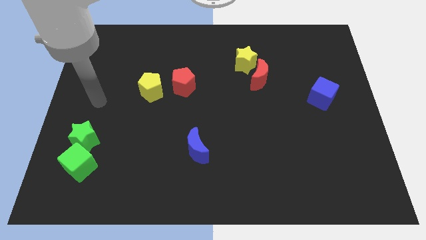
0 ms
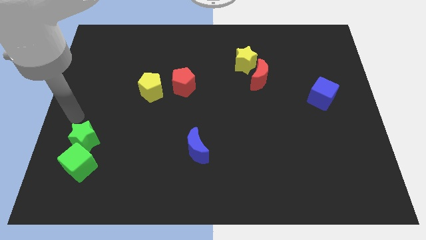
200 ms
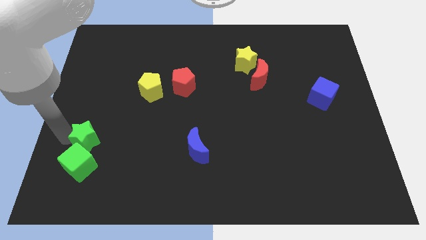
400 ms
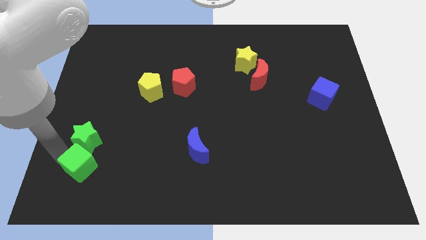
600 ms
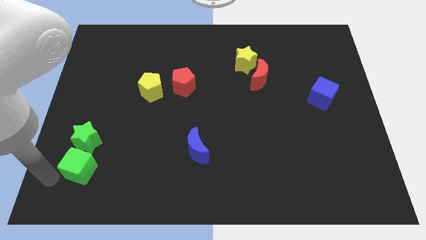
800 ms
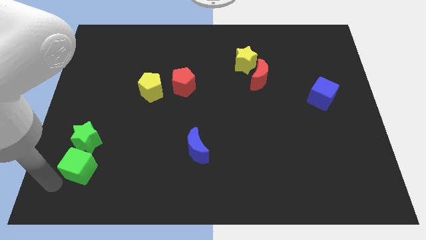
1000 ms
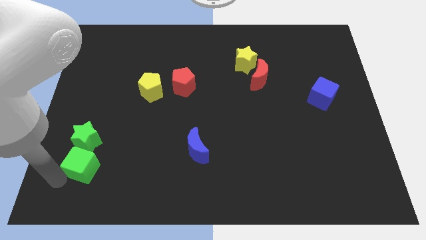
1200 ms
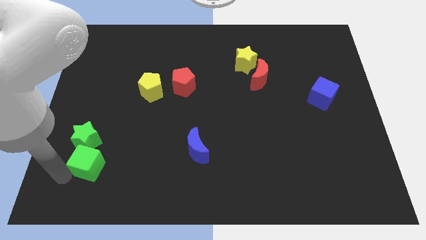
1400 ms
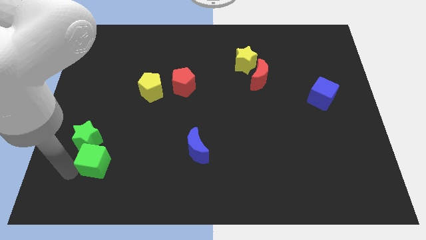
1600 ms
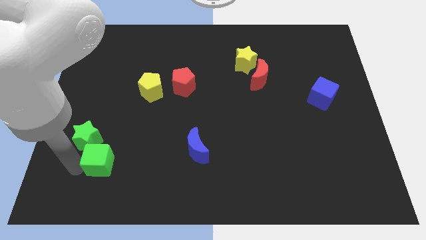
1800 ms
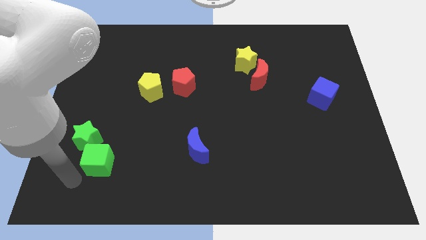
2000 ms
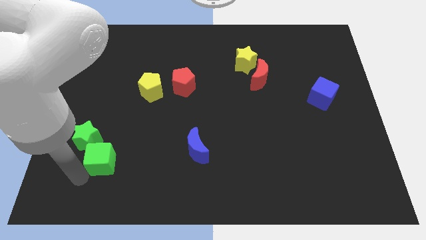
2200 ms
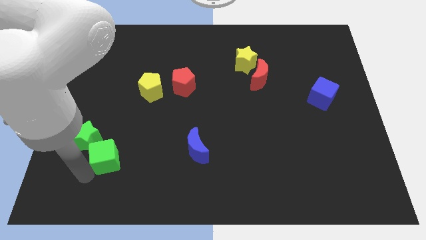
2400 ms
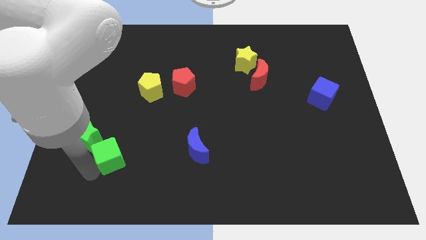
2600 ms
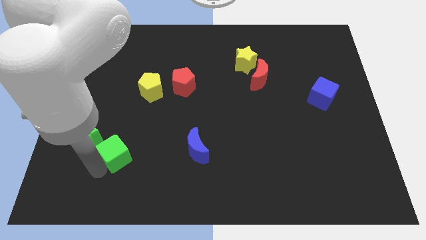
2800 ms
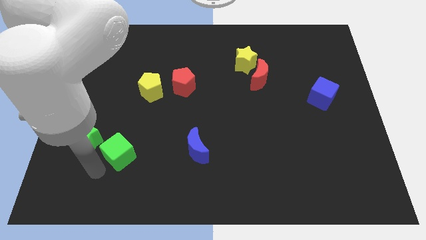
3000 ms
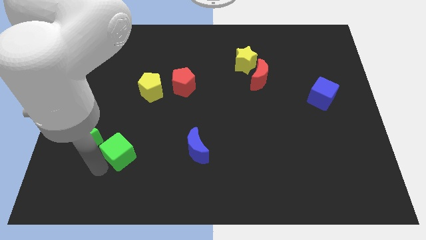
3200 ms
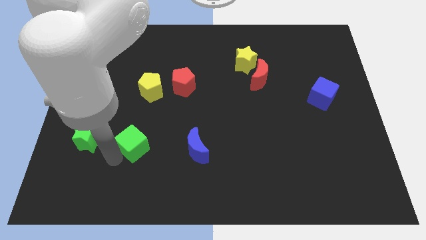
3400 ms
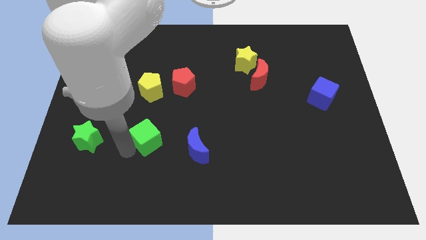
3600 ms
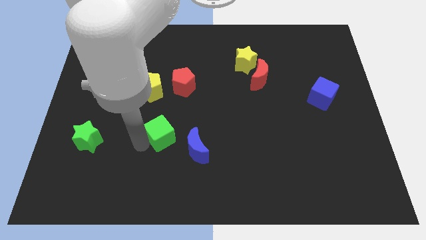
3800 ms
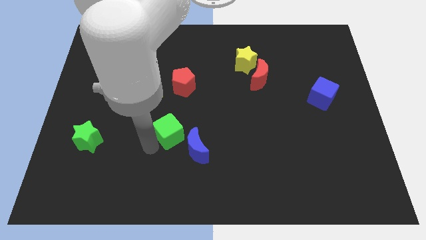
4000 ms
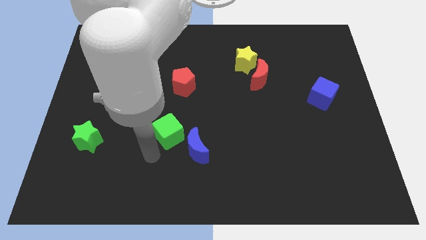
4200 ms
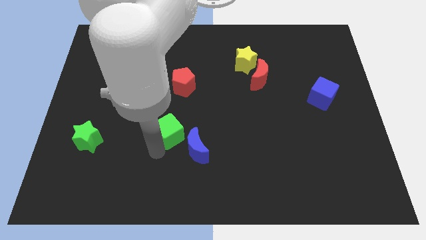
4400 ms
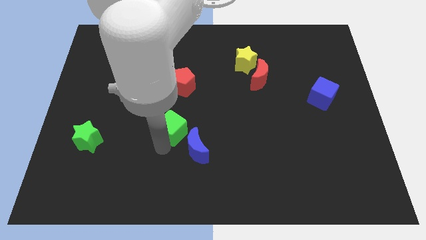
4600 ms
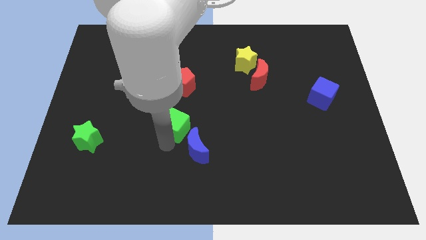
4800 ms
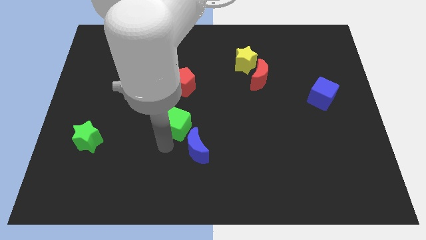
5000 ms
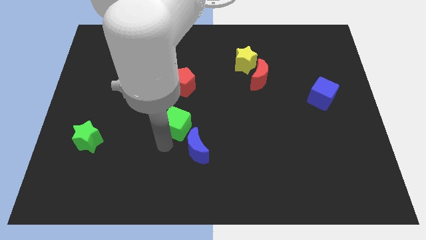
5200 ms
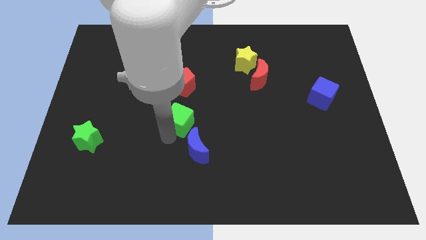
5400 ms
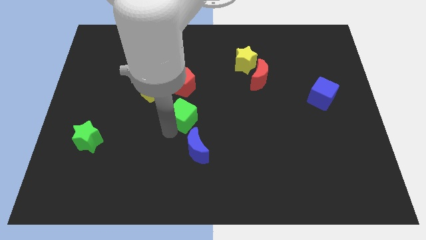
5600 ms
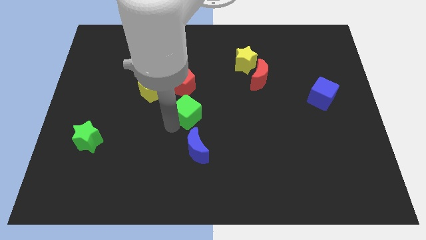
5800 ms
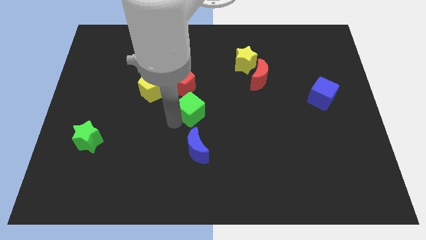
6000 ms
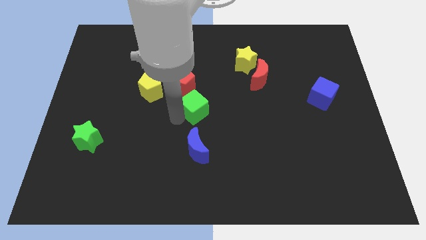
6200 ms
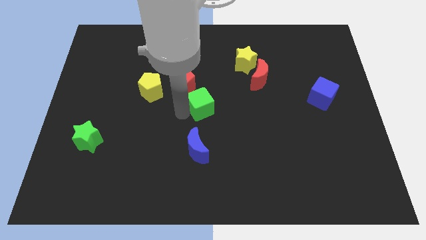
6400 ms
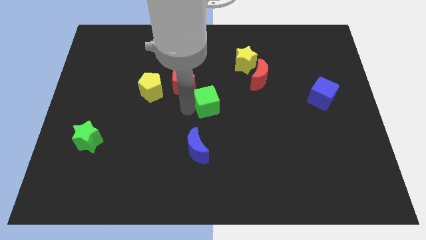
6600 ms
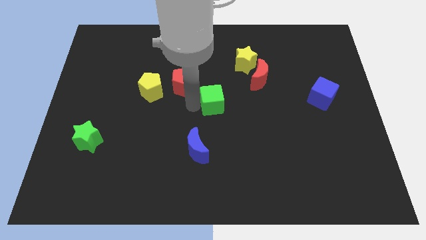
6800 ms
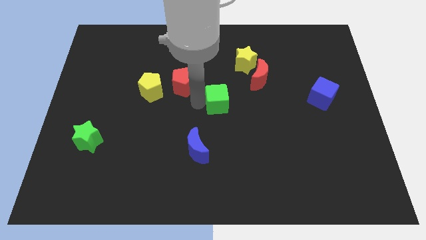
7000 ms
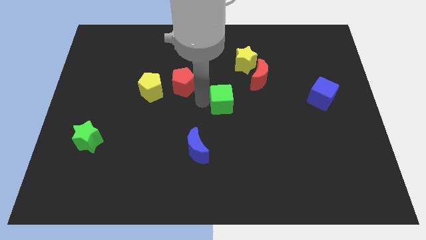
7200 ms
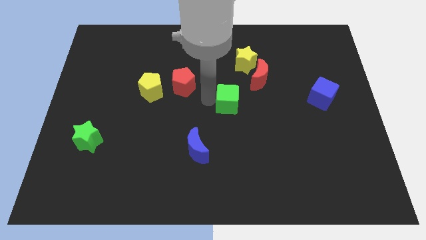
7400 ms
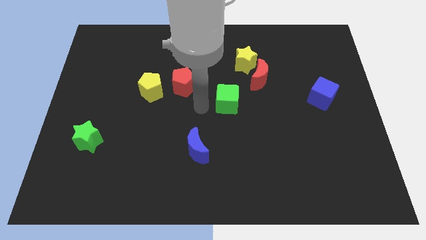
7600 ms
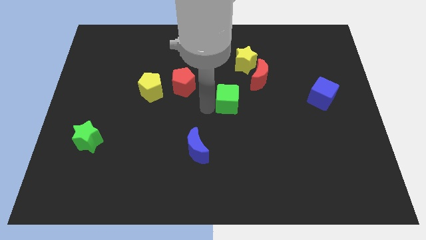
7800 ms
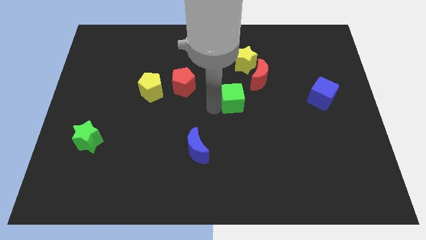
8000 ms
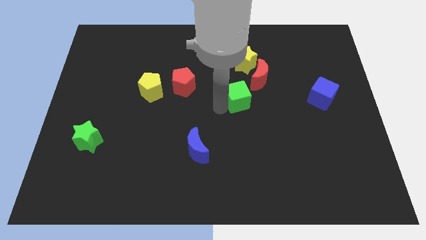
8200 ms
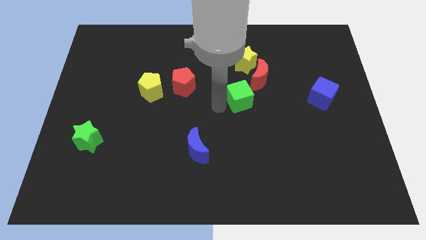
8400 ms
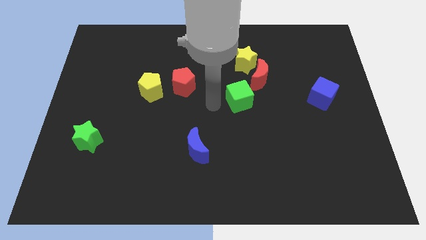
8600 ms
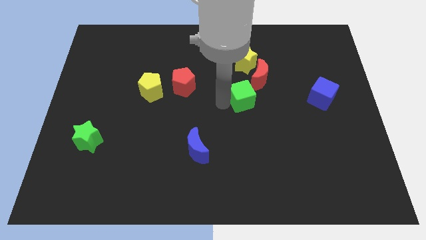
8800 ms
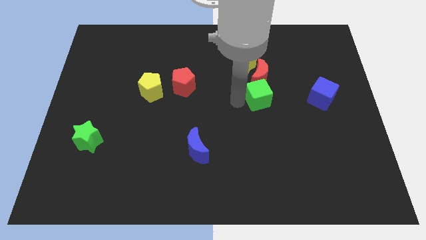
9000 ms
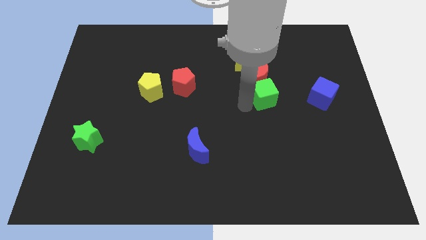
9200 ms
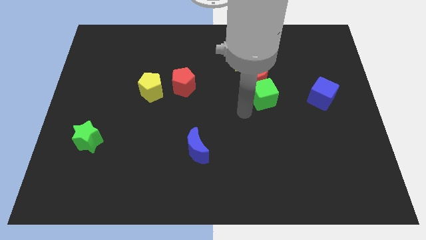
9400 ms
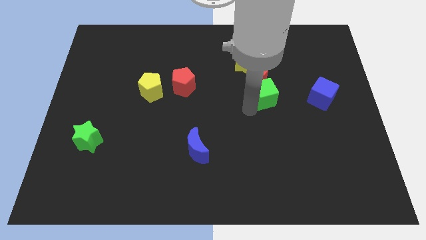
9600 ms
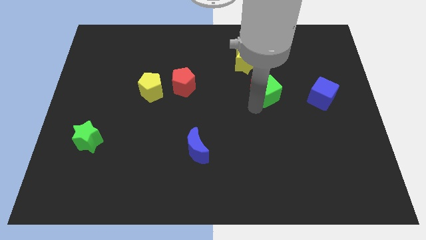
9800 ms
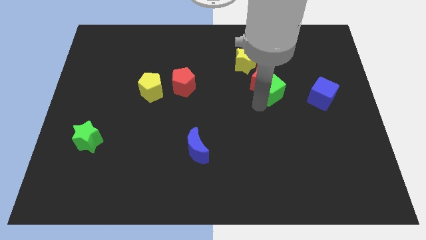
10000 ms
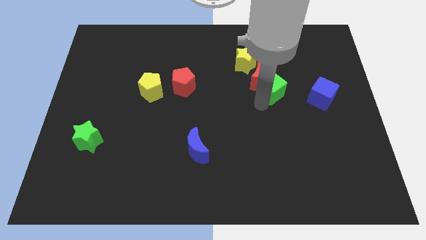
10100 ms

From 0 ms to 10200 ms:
move the green cube right of the red moon

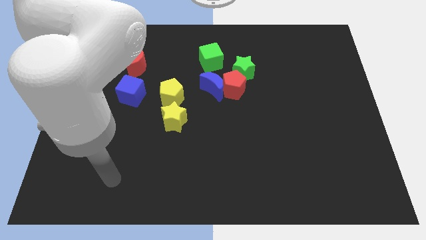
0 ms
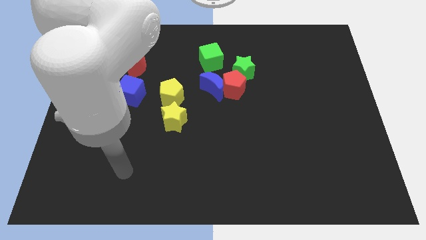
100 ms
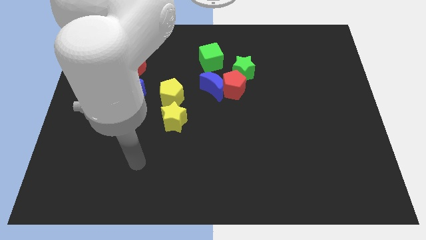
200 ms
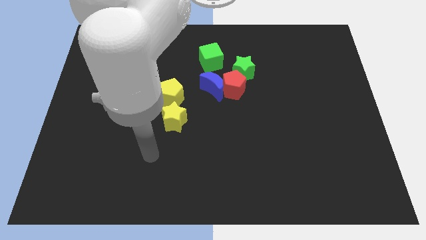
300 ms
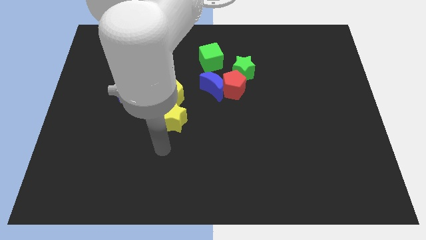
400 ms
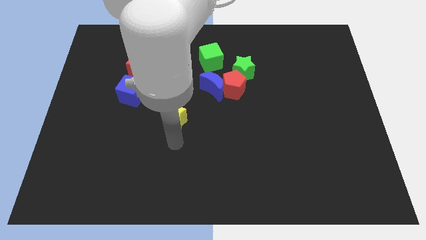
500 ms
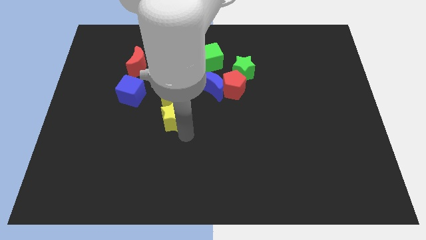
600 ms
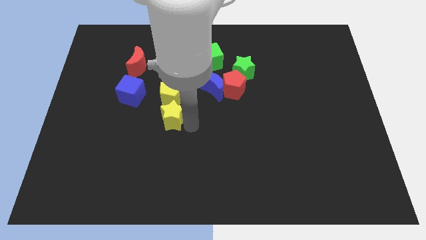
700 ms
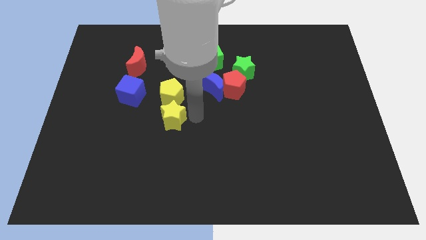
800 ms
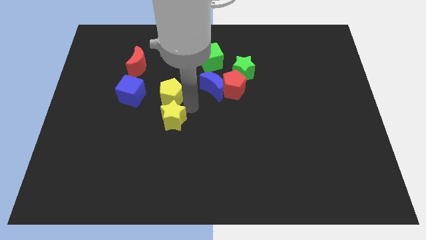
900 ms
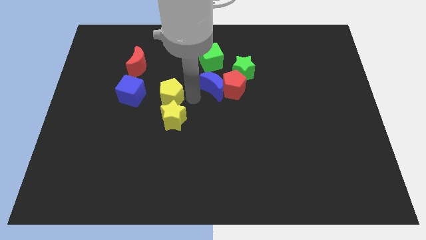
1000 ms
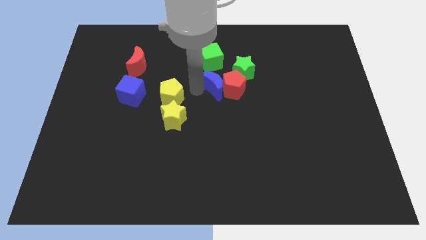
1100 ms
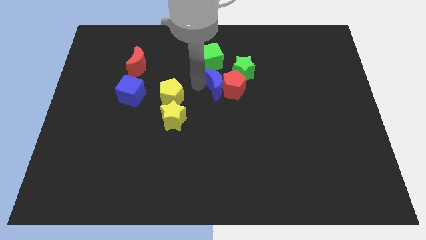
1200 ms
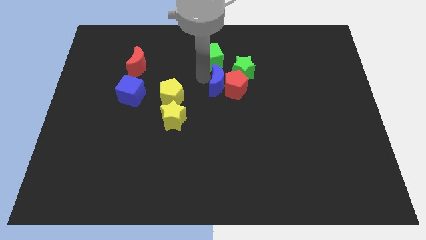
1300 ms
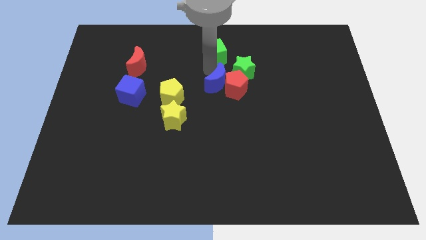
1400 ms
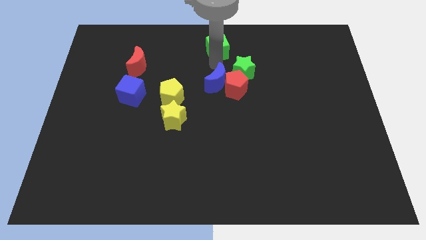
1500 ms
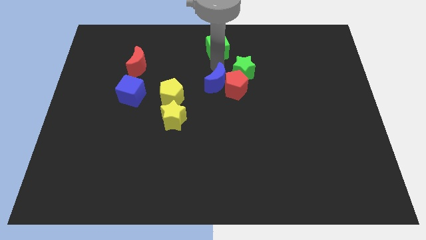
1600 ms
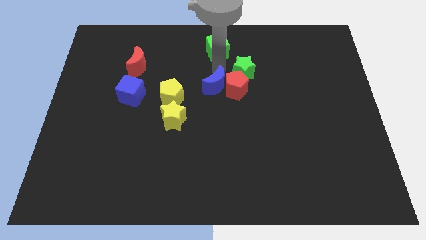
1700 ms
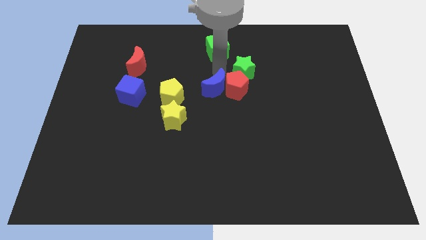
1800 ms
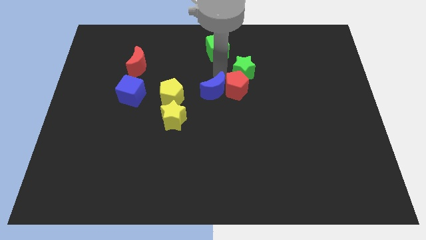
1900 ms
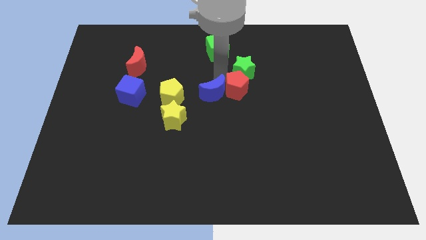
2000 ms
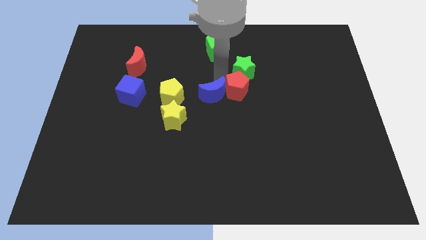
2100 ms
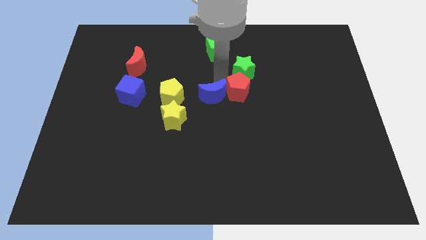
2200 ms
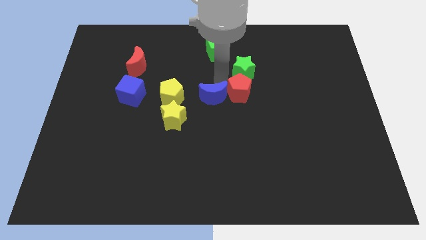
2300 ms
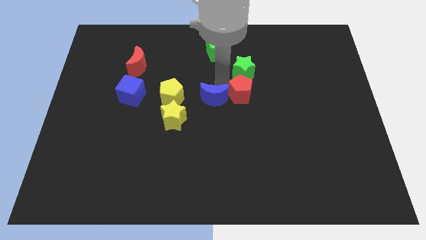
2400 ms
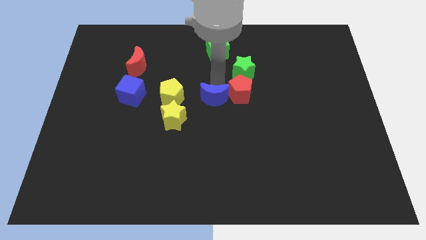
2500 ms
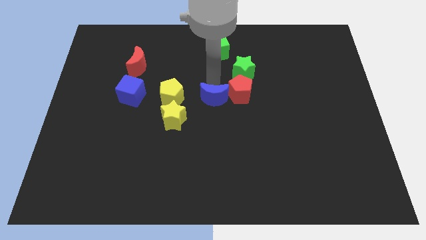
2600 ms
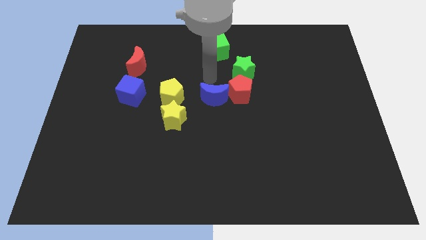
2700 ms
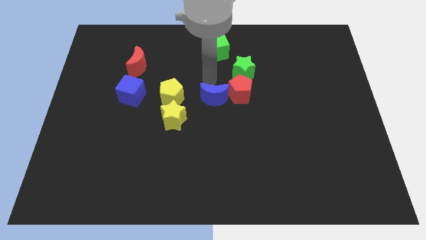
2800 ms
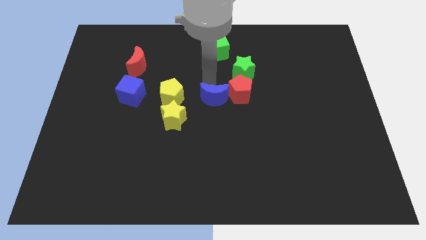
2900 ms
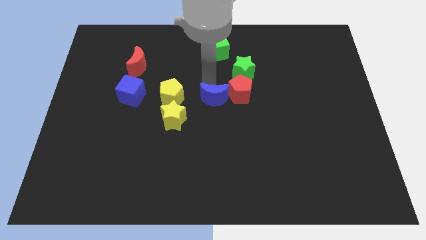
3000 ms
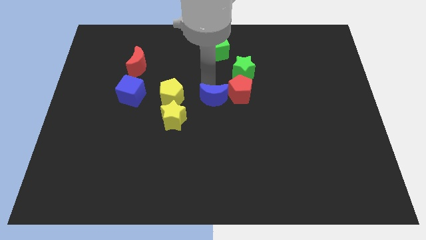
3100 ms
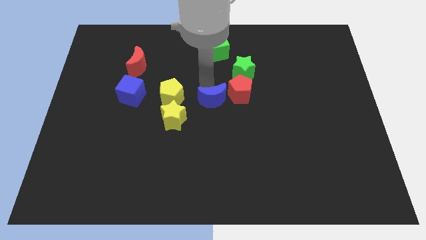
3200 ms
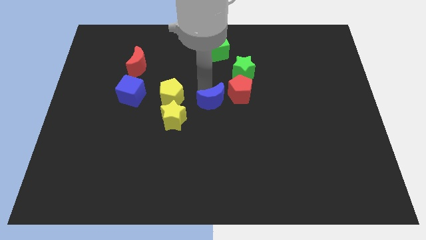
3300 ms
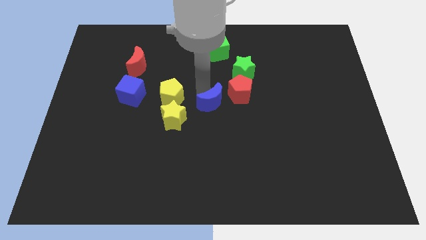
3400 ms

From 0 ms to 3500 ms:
put the blue moon right of the yellow star
